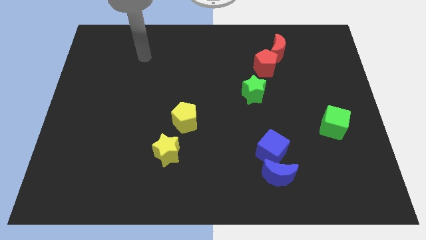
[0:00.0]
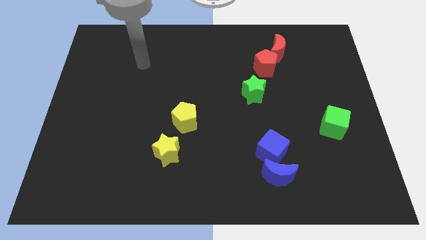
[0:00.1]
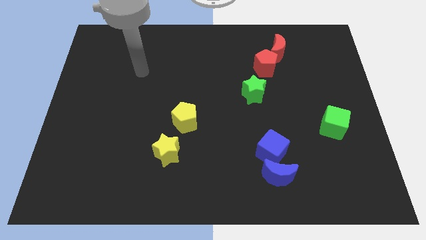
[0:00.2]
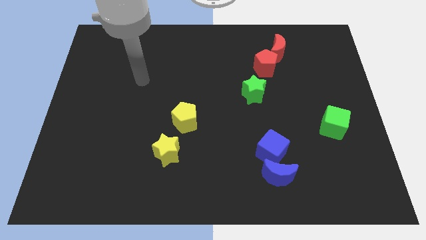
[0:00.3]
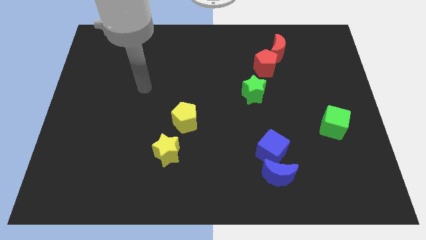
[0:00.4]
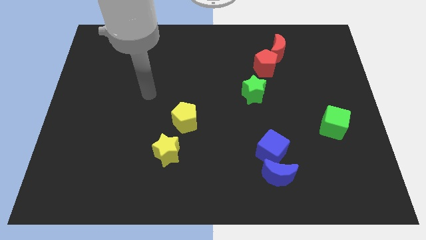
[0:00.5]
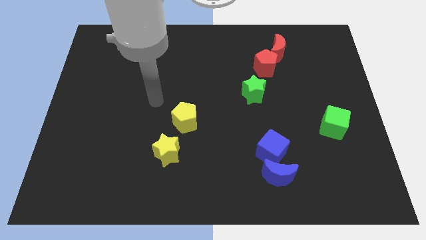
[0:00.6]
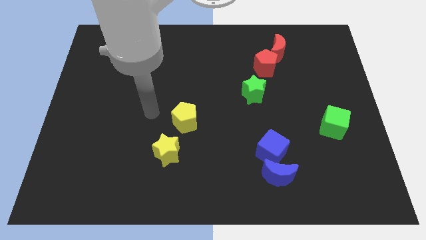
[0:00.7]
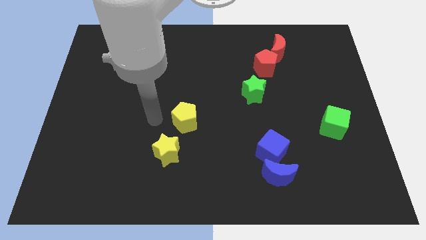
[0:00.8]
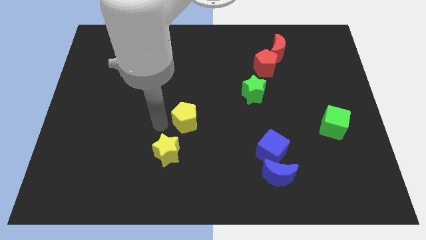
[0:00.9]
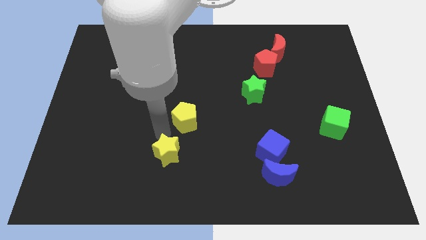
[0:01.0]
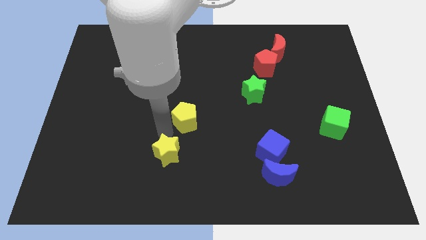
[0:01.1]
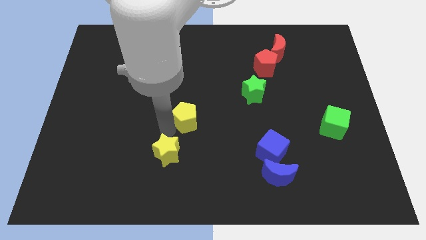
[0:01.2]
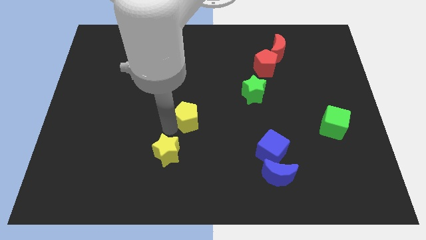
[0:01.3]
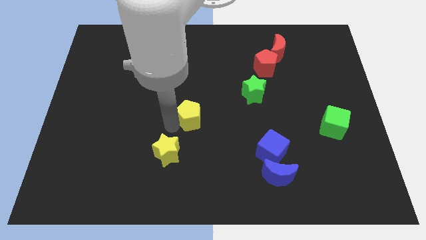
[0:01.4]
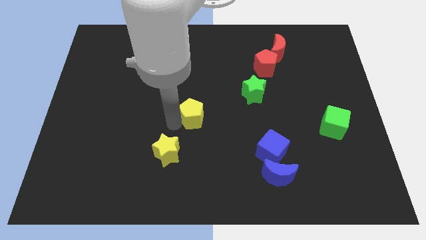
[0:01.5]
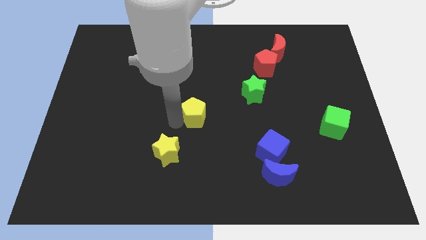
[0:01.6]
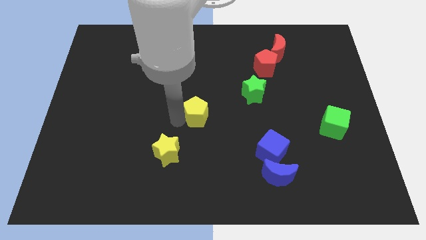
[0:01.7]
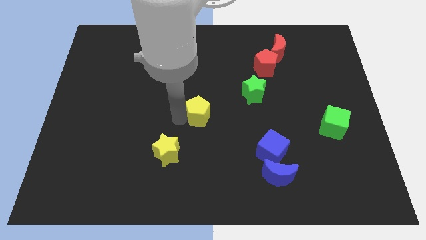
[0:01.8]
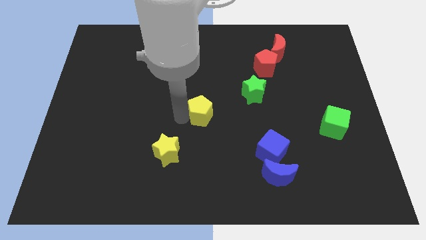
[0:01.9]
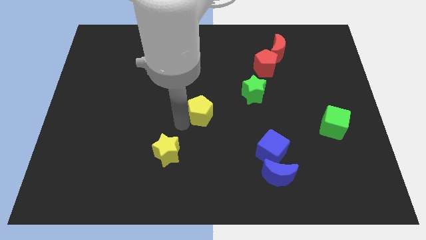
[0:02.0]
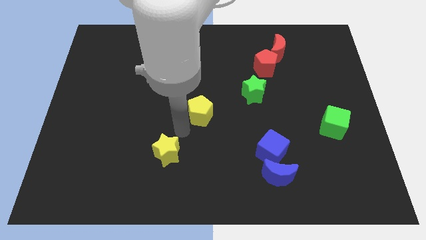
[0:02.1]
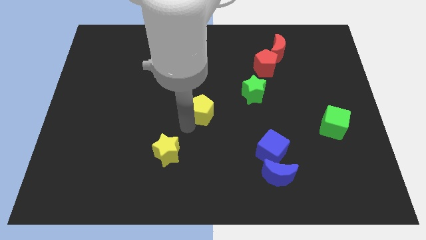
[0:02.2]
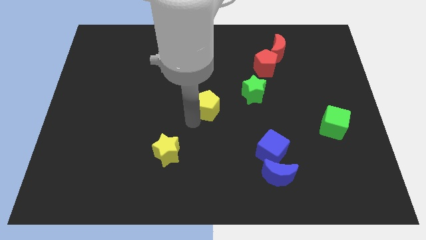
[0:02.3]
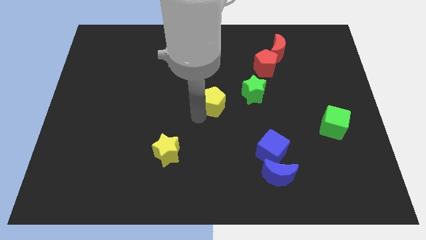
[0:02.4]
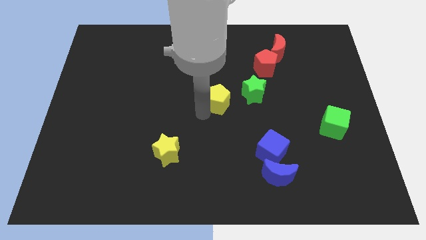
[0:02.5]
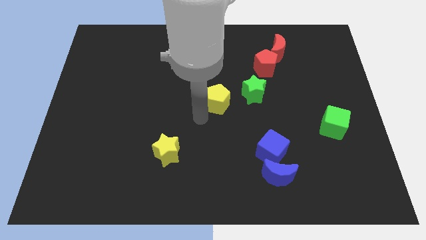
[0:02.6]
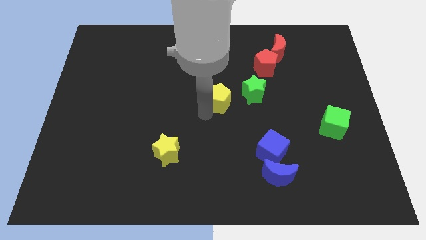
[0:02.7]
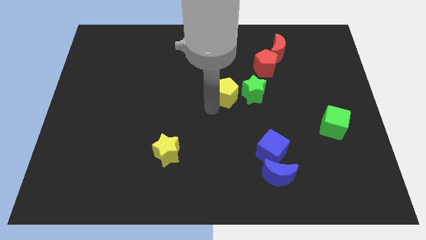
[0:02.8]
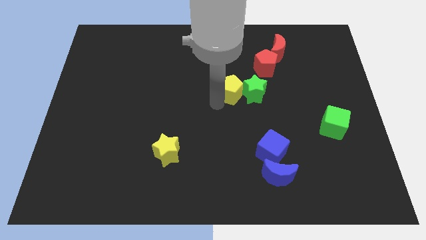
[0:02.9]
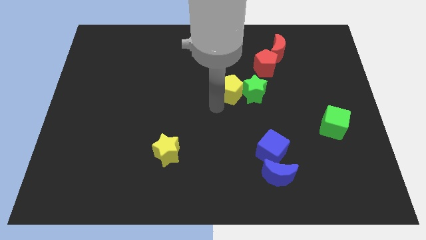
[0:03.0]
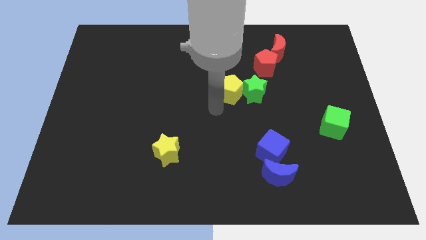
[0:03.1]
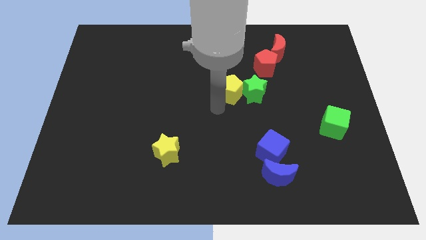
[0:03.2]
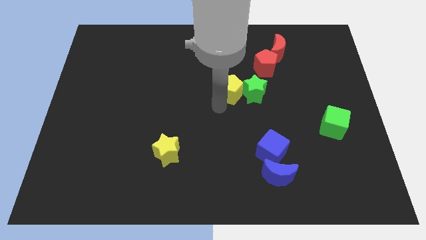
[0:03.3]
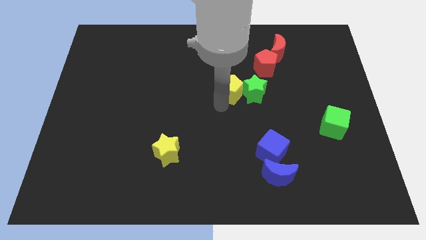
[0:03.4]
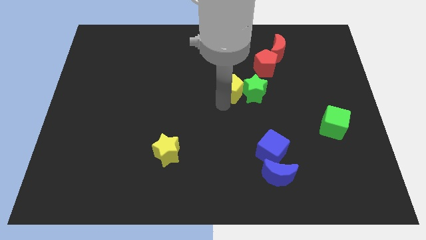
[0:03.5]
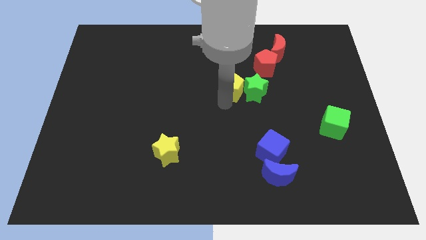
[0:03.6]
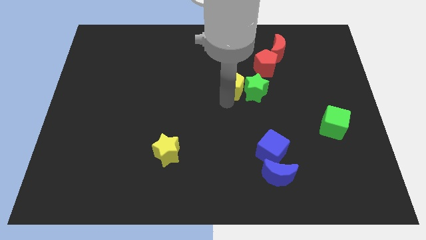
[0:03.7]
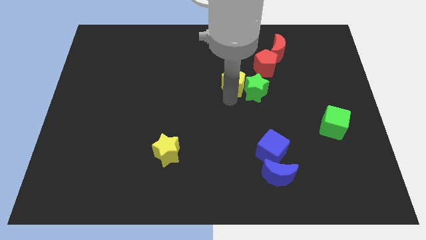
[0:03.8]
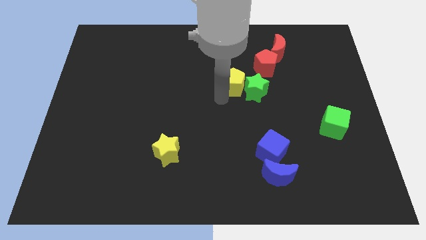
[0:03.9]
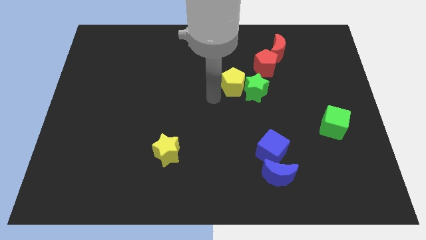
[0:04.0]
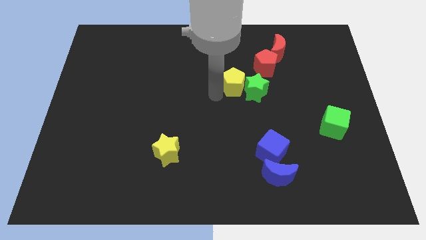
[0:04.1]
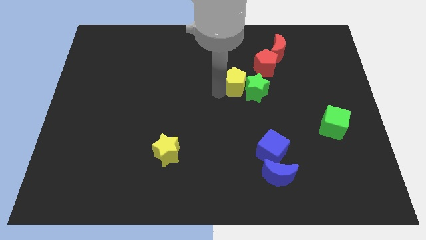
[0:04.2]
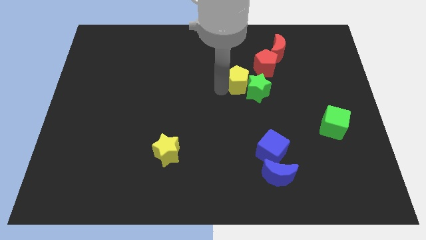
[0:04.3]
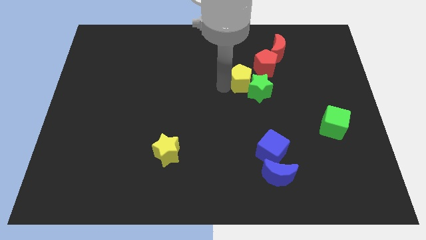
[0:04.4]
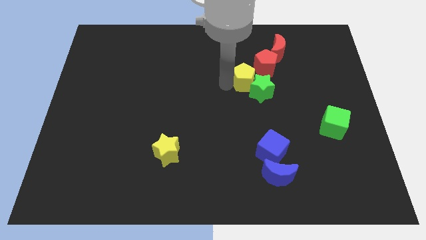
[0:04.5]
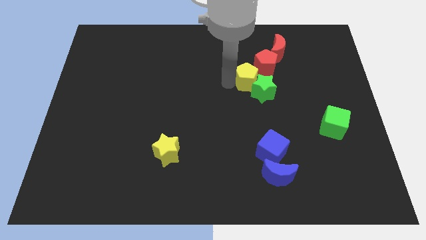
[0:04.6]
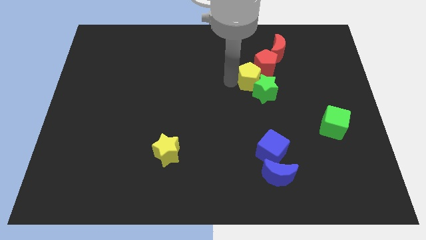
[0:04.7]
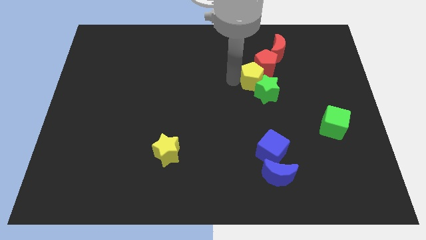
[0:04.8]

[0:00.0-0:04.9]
push the yellow pentagon close to the red pentagon
